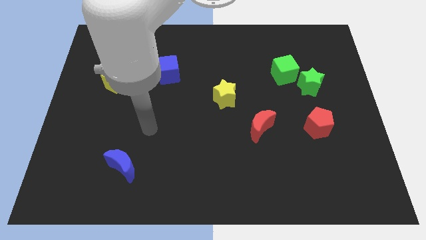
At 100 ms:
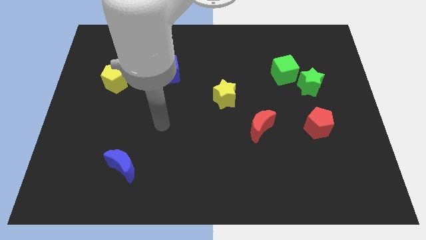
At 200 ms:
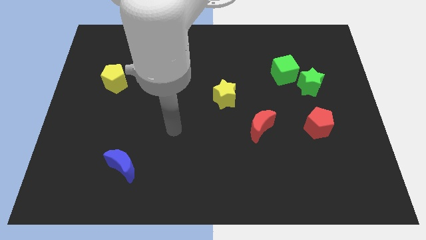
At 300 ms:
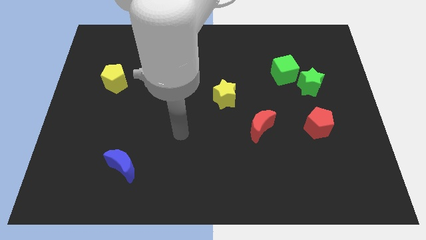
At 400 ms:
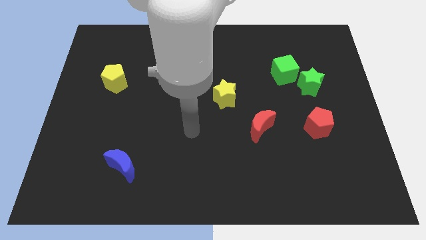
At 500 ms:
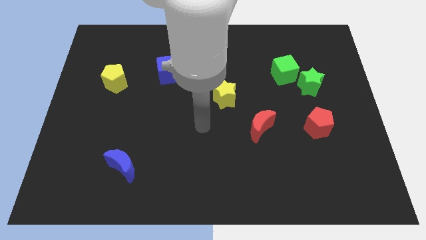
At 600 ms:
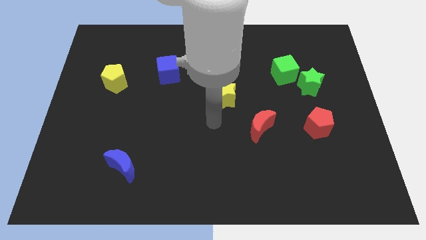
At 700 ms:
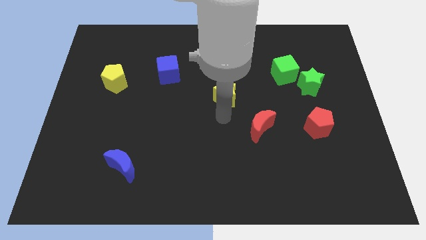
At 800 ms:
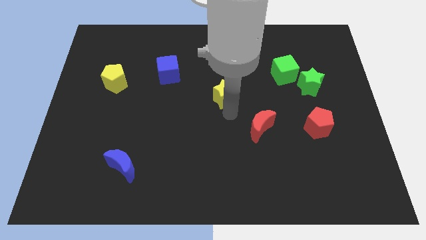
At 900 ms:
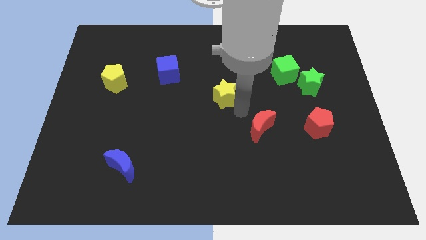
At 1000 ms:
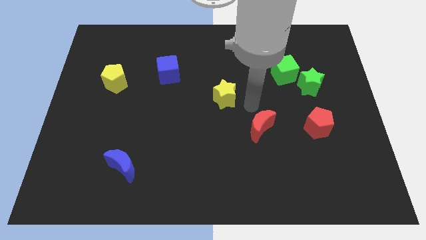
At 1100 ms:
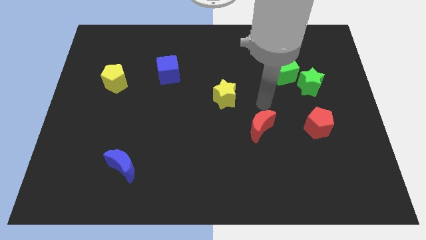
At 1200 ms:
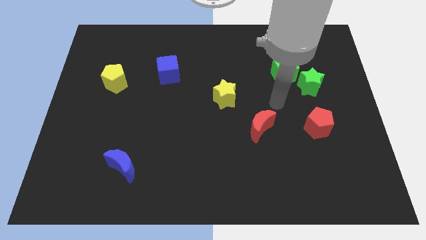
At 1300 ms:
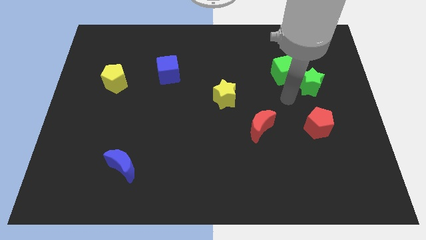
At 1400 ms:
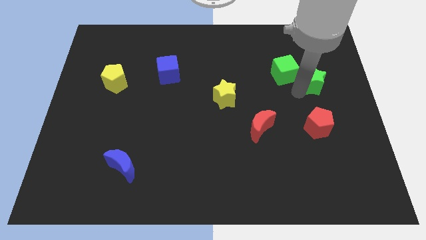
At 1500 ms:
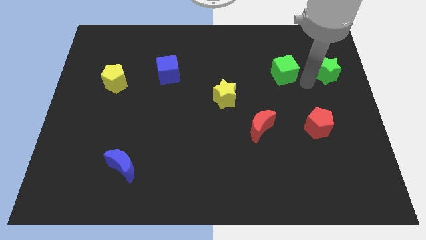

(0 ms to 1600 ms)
pull the green cube apart from the green star

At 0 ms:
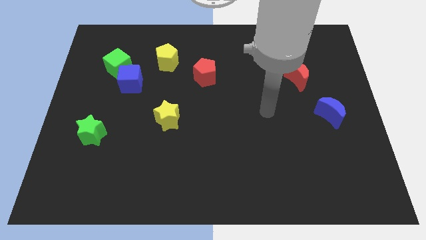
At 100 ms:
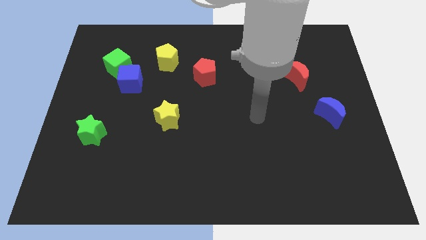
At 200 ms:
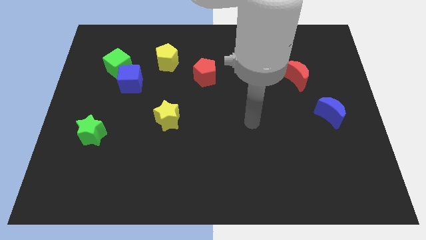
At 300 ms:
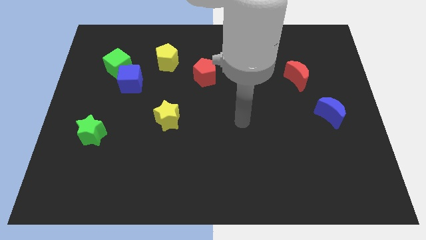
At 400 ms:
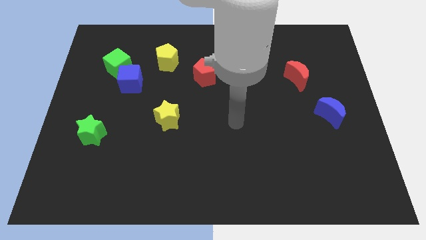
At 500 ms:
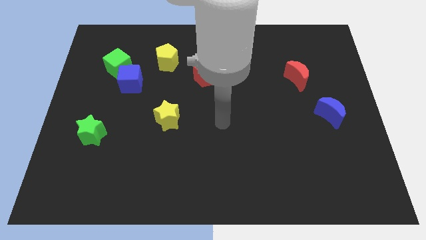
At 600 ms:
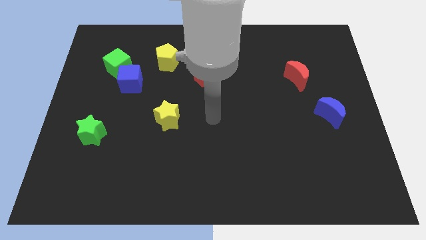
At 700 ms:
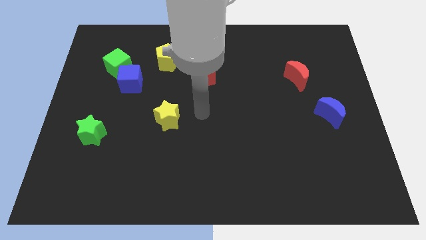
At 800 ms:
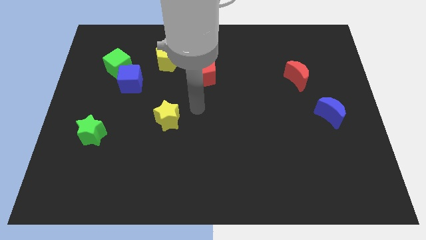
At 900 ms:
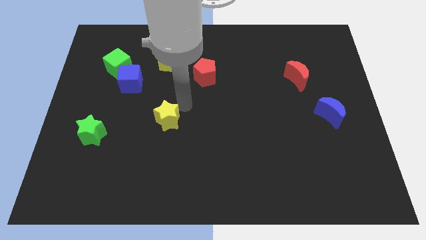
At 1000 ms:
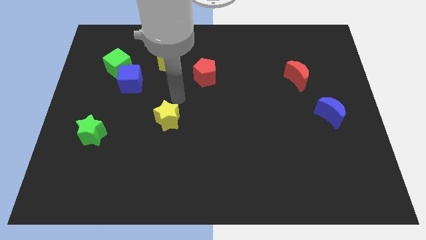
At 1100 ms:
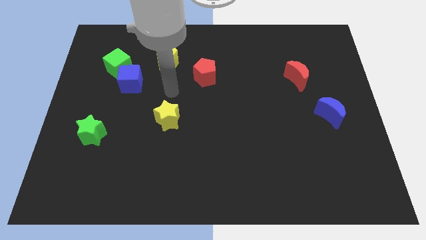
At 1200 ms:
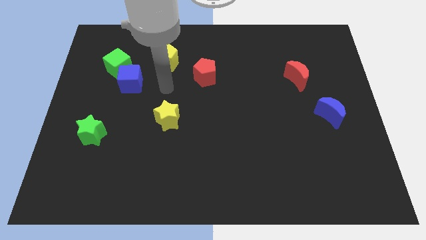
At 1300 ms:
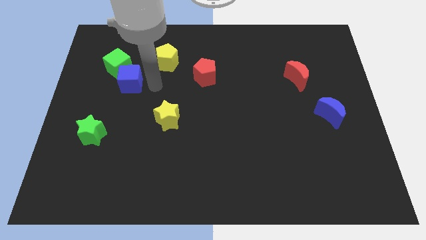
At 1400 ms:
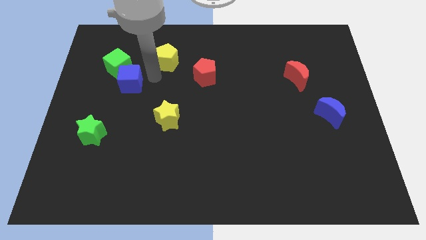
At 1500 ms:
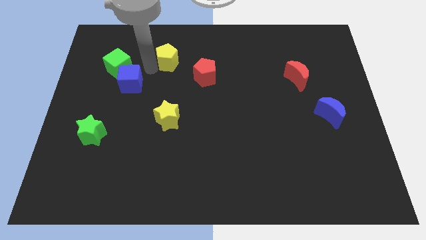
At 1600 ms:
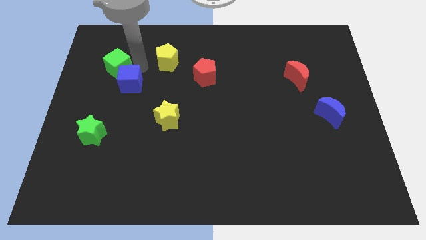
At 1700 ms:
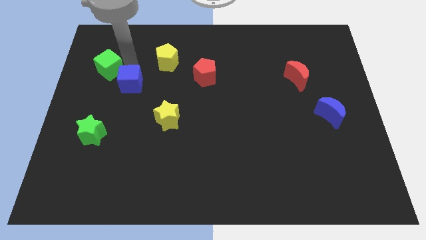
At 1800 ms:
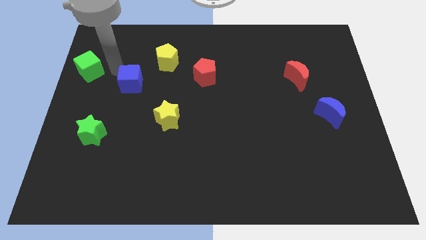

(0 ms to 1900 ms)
move the blue cube away from the green cube

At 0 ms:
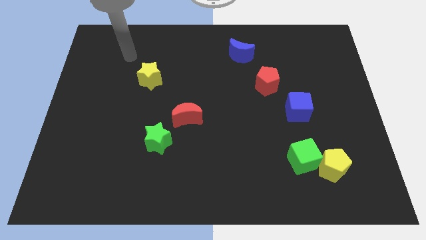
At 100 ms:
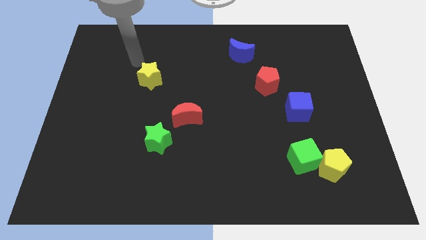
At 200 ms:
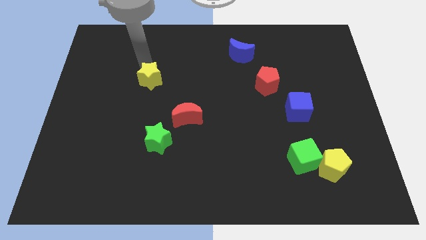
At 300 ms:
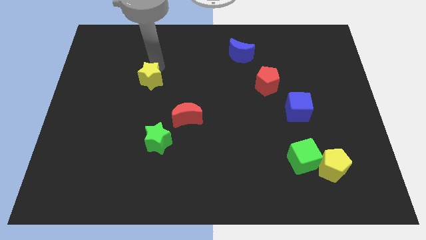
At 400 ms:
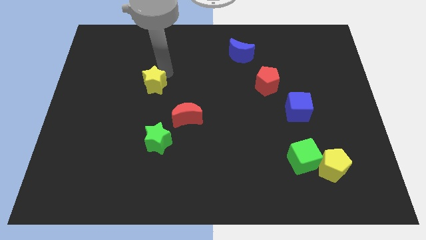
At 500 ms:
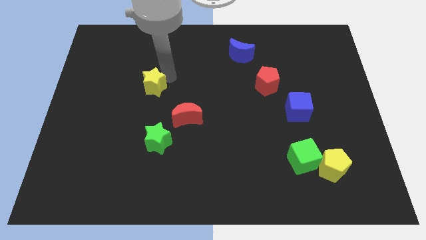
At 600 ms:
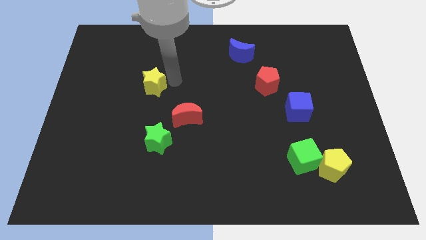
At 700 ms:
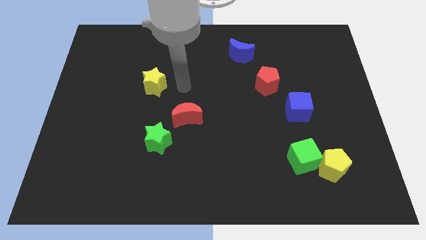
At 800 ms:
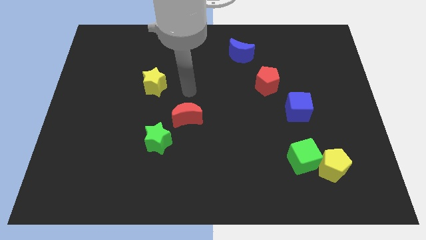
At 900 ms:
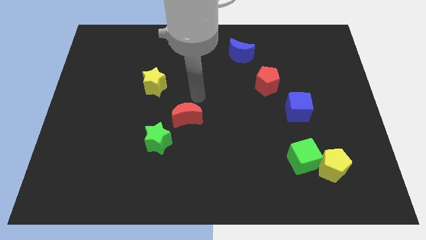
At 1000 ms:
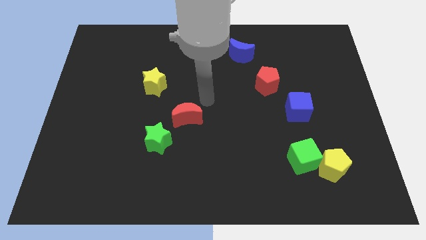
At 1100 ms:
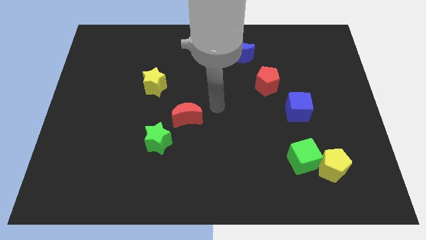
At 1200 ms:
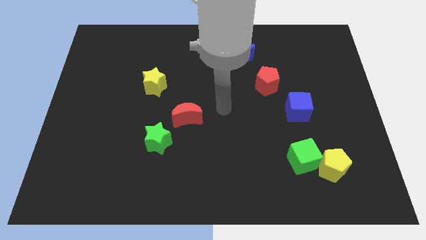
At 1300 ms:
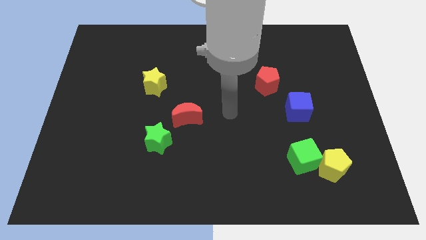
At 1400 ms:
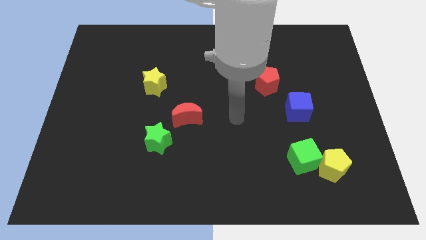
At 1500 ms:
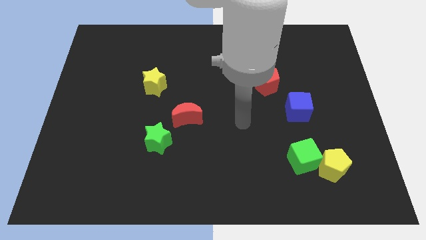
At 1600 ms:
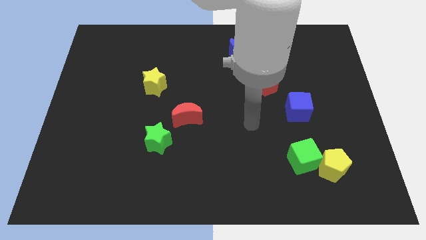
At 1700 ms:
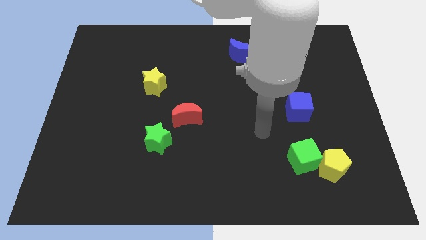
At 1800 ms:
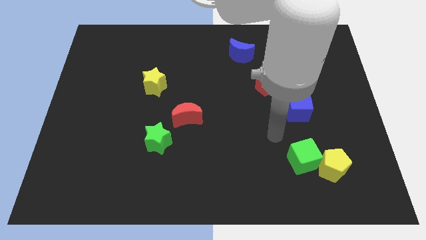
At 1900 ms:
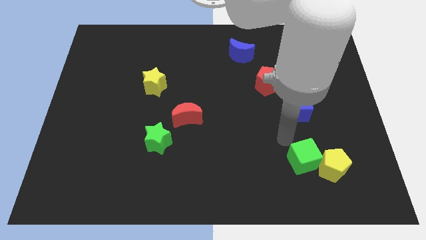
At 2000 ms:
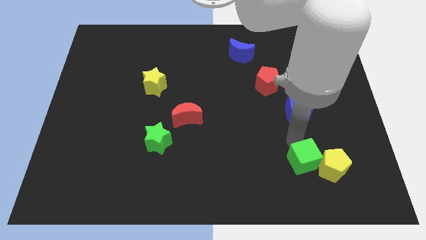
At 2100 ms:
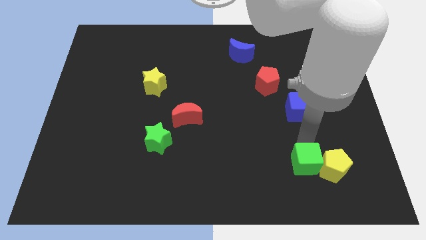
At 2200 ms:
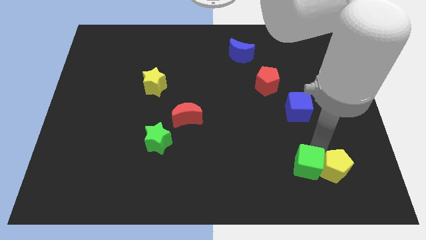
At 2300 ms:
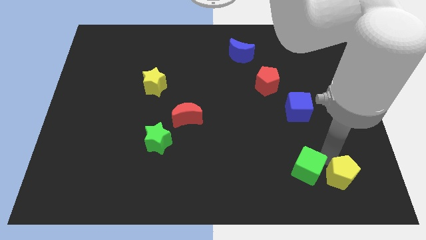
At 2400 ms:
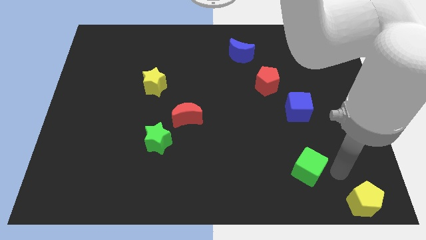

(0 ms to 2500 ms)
move the green cube away from the yellow pentagon

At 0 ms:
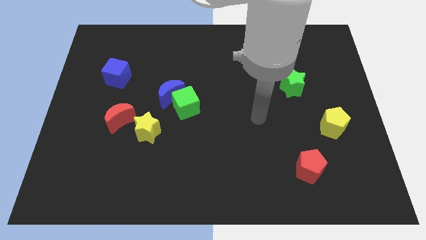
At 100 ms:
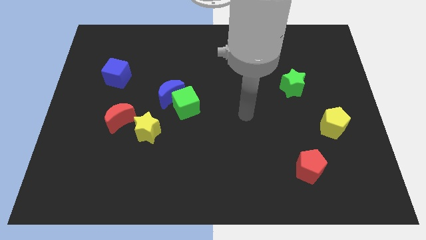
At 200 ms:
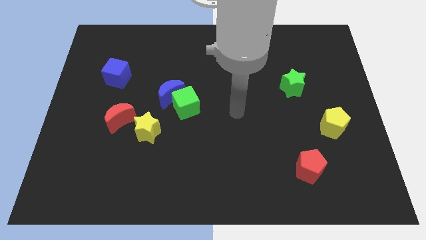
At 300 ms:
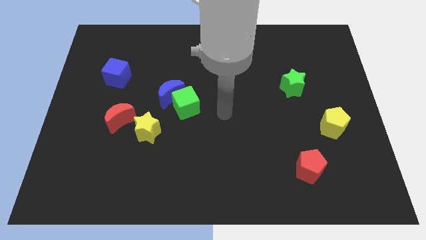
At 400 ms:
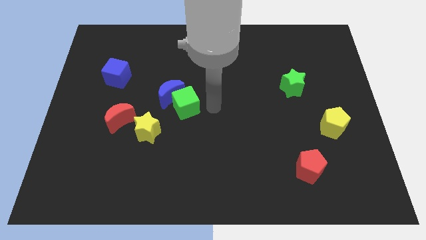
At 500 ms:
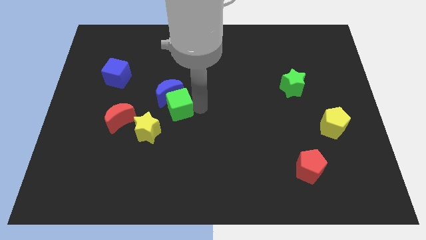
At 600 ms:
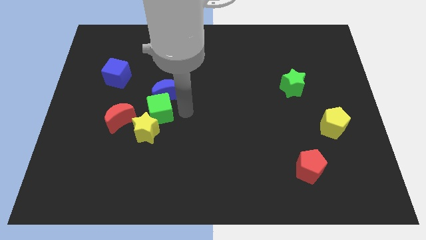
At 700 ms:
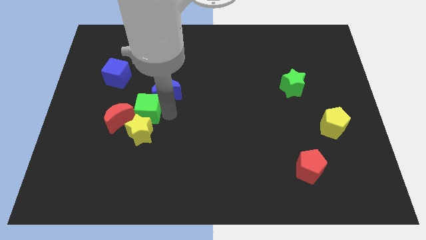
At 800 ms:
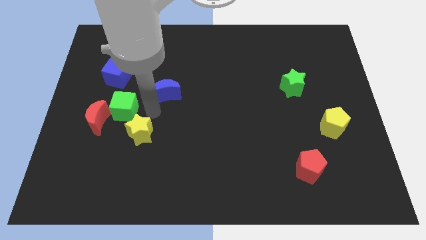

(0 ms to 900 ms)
move the blue moon away from the green cube

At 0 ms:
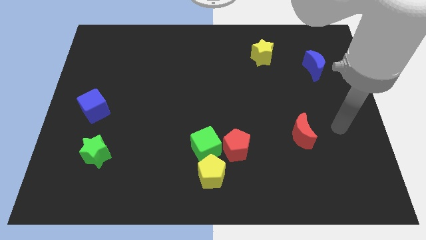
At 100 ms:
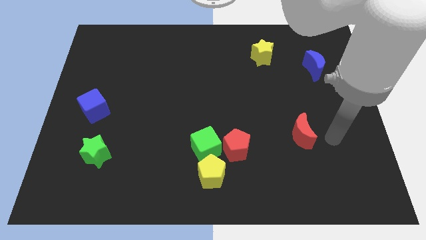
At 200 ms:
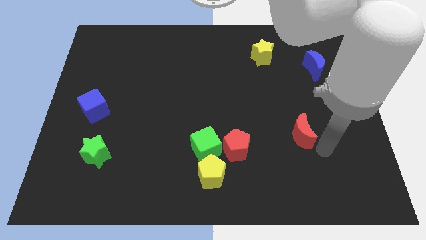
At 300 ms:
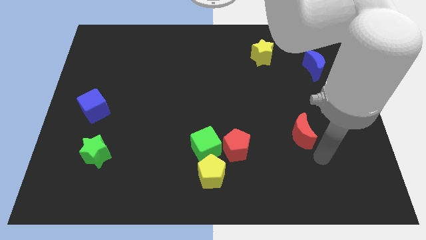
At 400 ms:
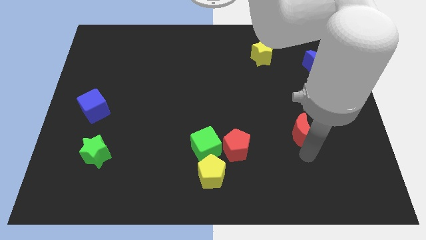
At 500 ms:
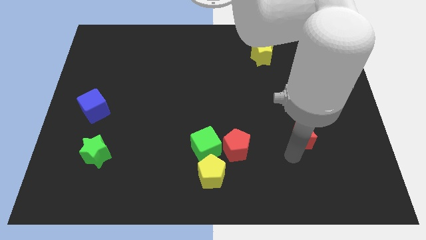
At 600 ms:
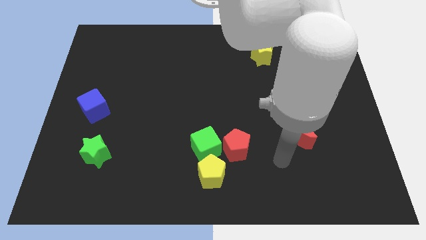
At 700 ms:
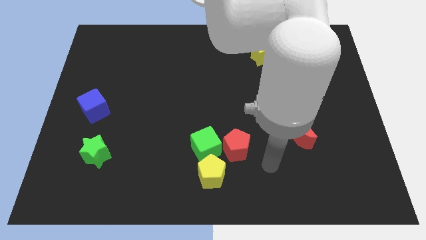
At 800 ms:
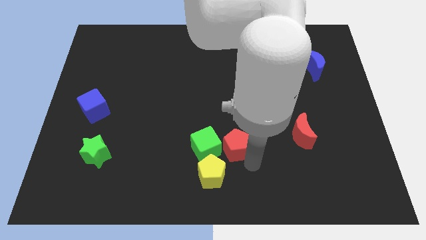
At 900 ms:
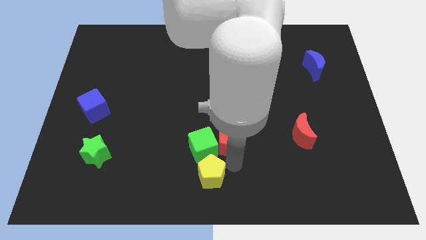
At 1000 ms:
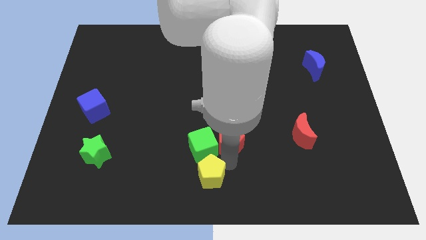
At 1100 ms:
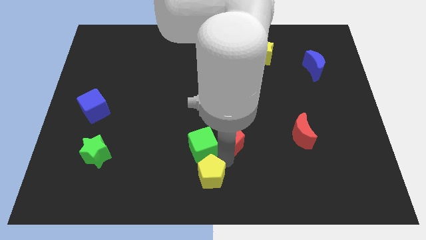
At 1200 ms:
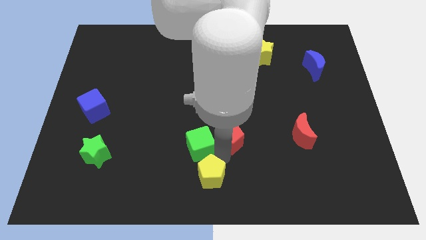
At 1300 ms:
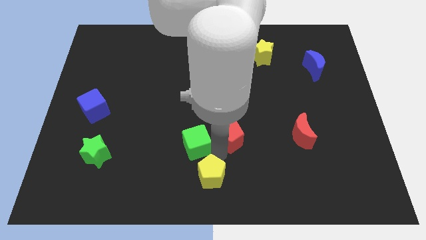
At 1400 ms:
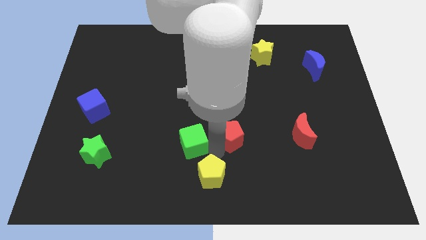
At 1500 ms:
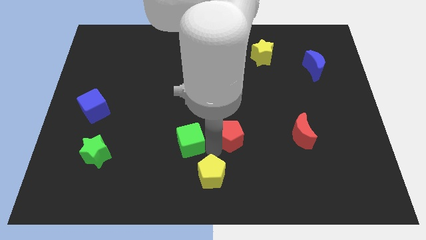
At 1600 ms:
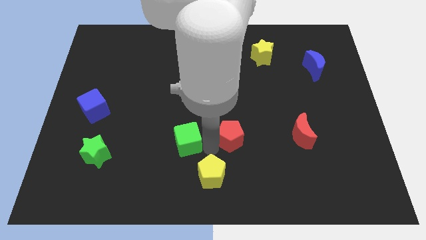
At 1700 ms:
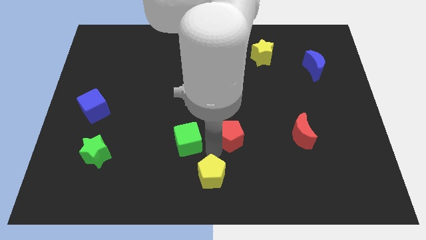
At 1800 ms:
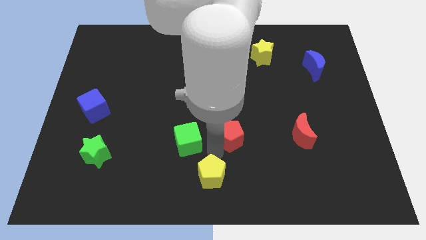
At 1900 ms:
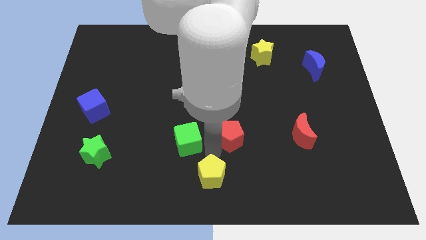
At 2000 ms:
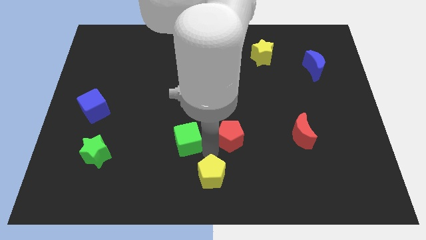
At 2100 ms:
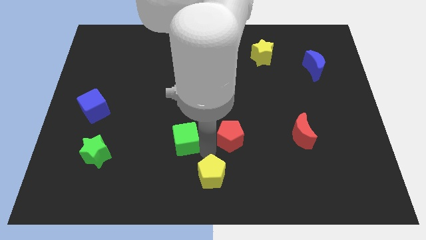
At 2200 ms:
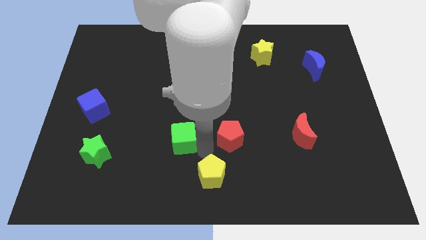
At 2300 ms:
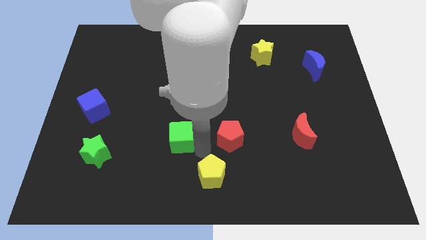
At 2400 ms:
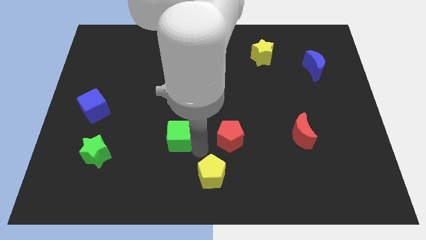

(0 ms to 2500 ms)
move the green cube away from the red pentagon and yellow pentagon
